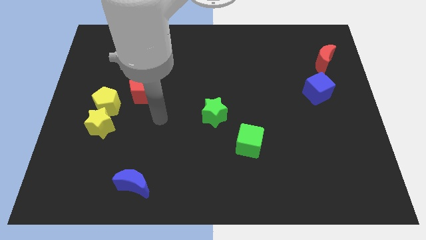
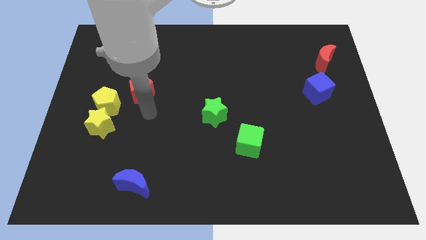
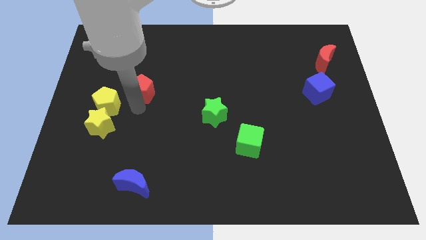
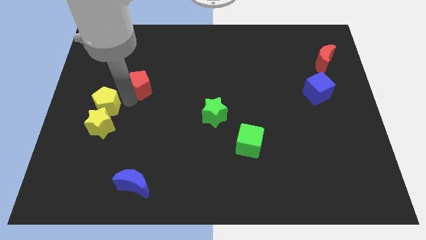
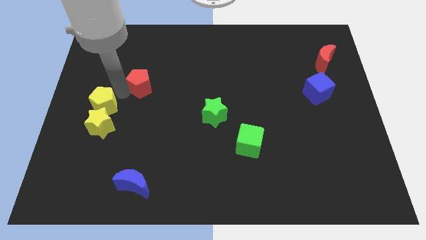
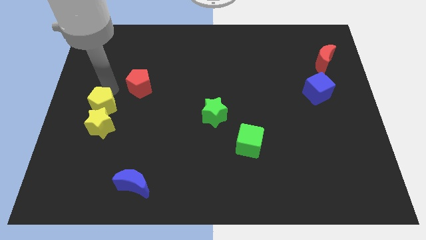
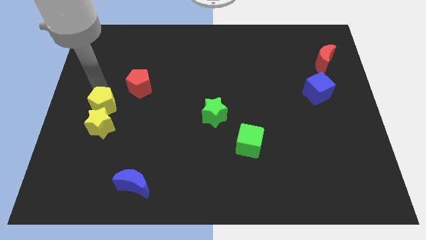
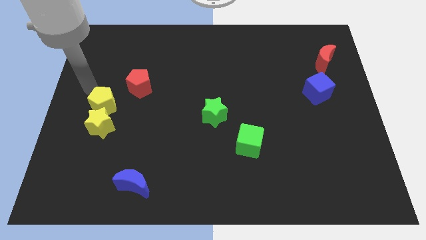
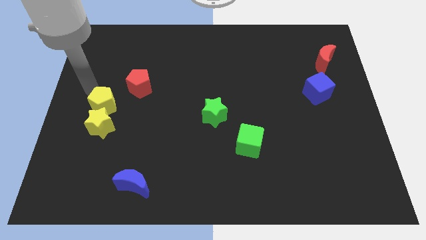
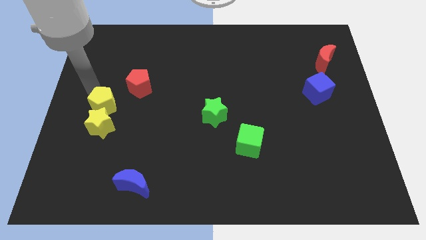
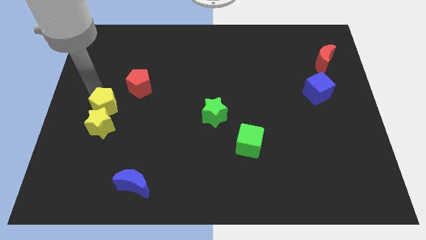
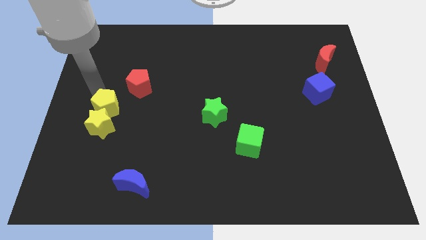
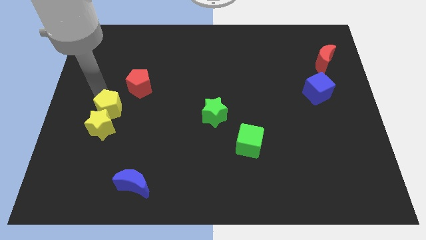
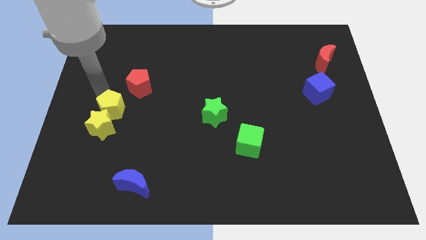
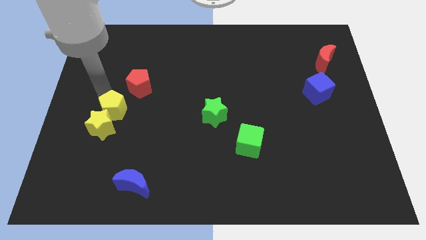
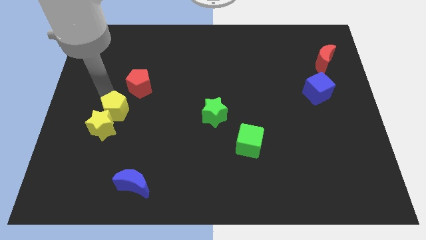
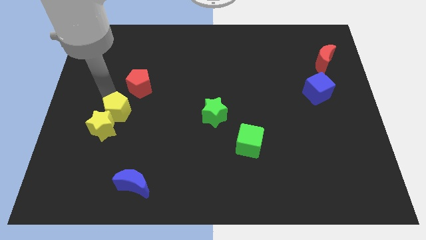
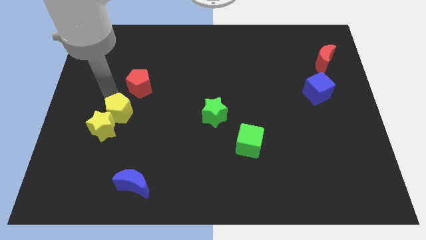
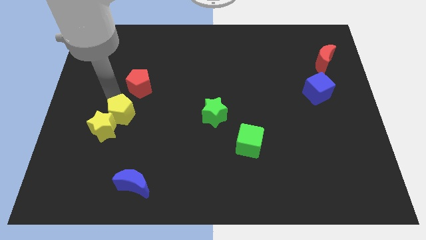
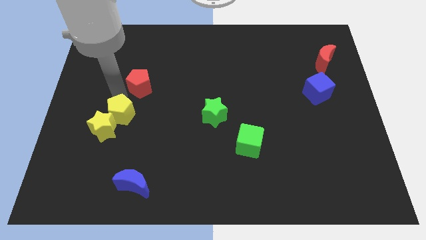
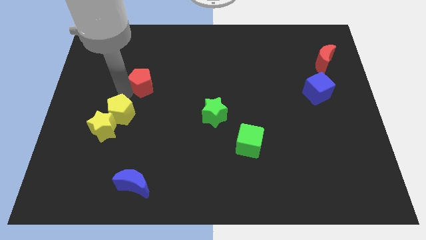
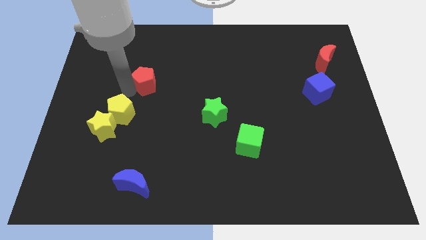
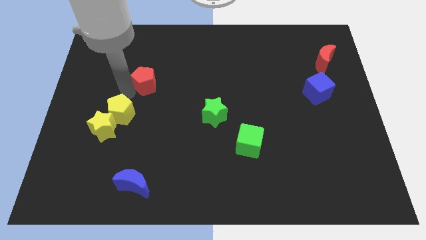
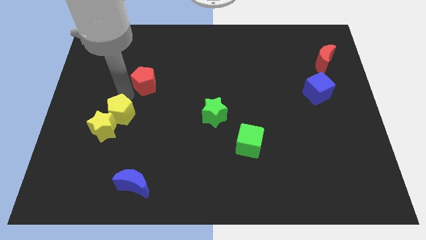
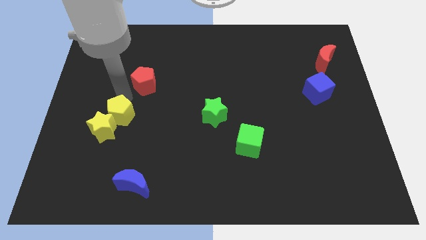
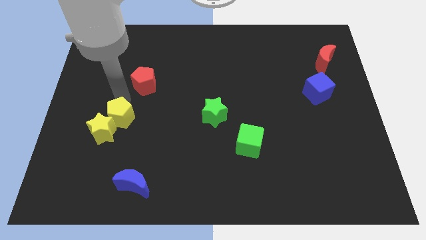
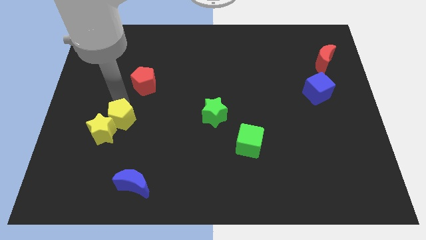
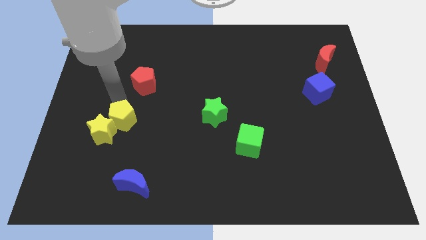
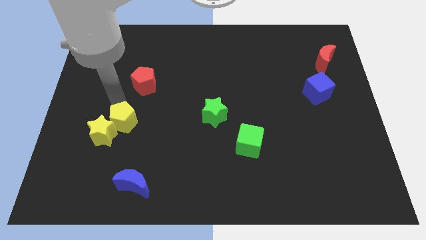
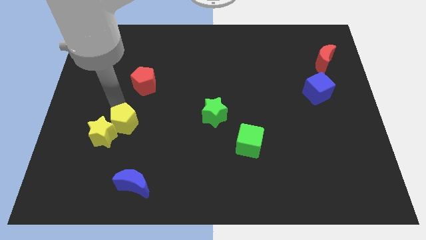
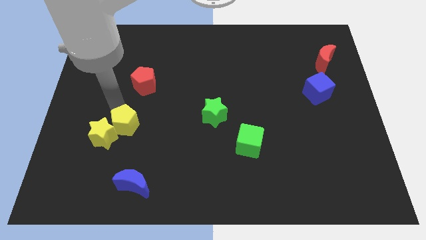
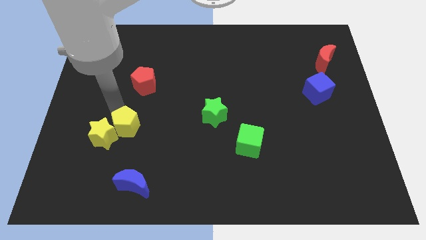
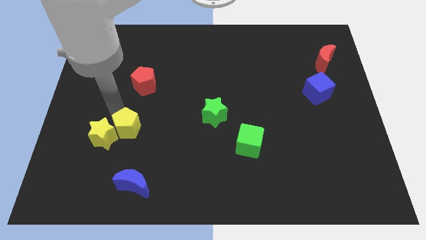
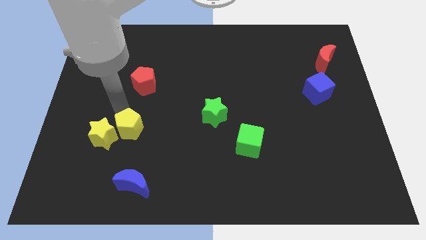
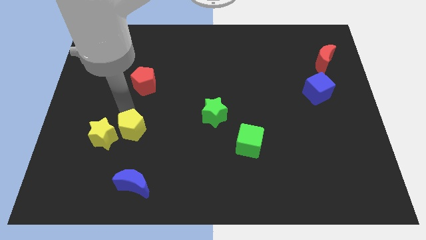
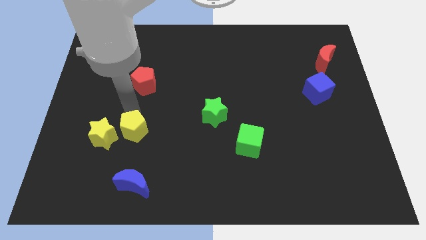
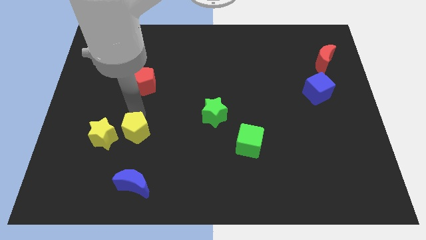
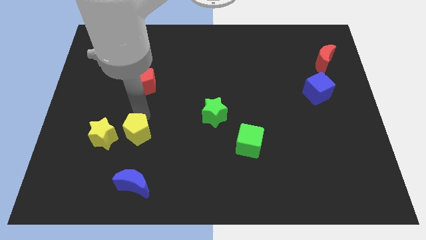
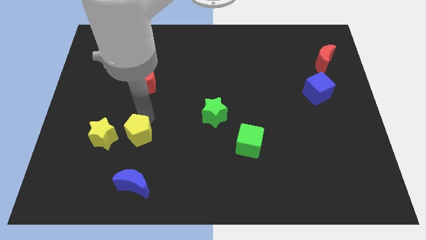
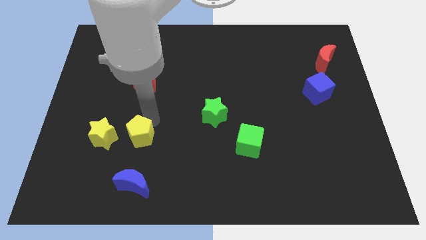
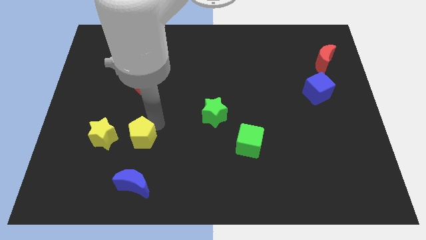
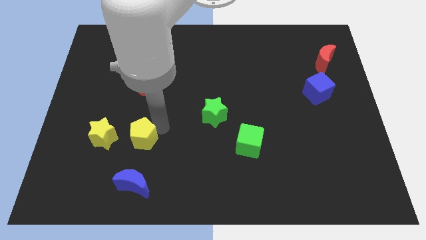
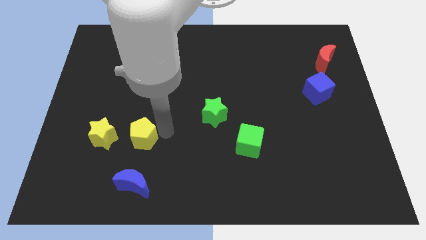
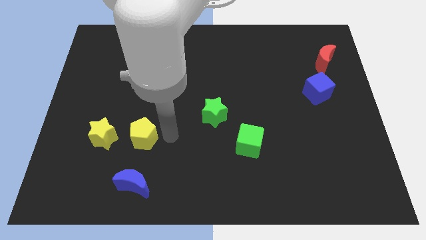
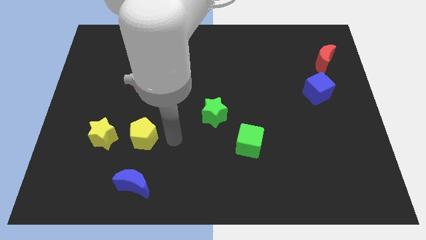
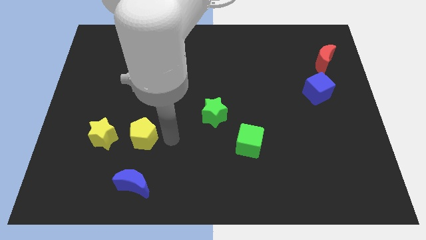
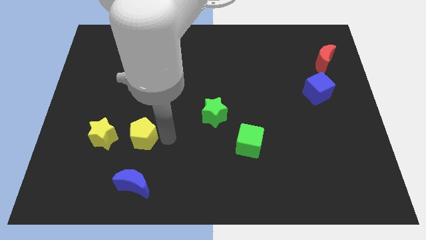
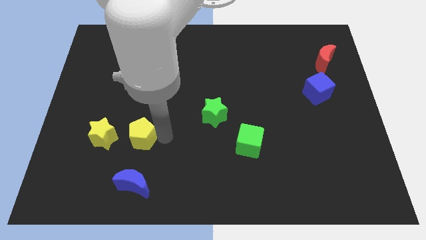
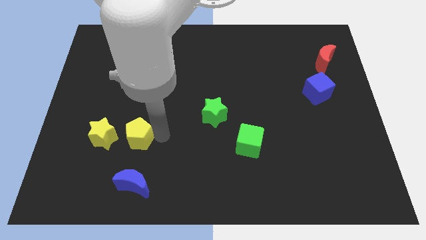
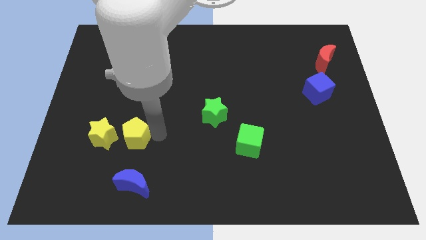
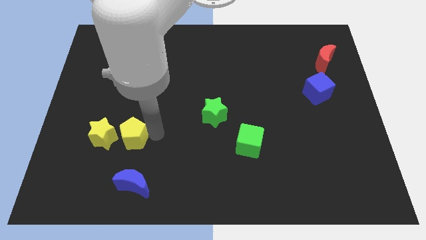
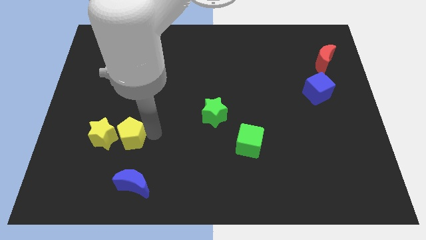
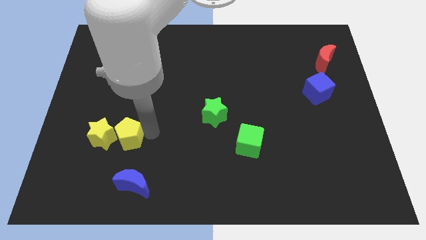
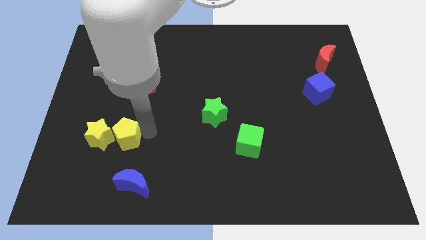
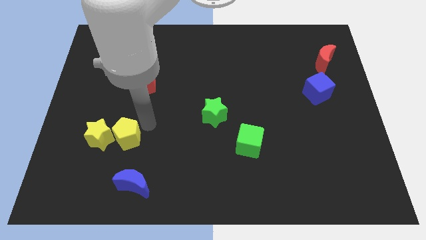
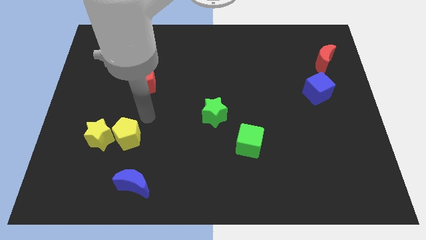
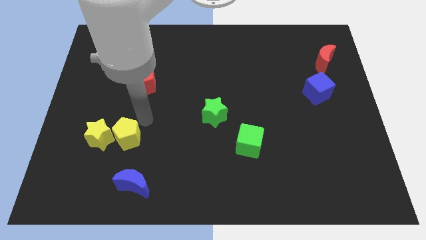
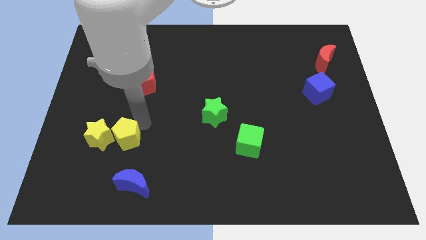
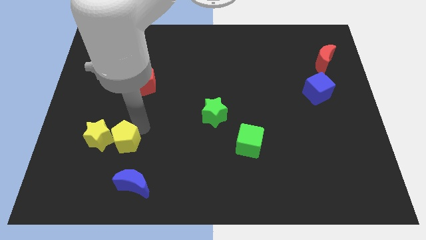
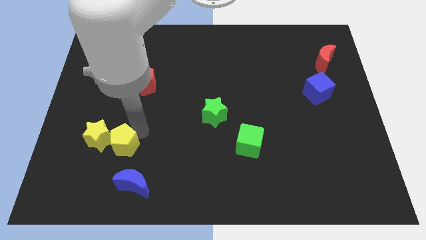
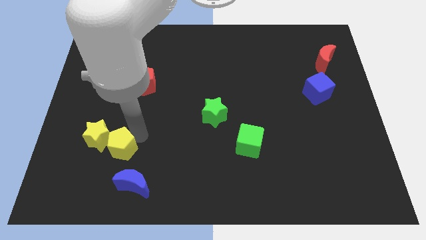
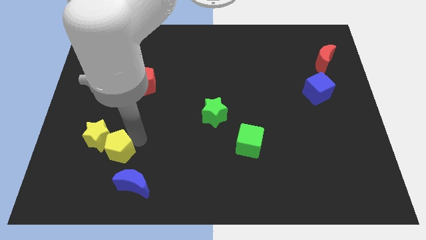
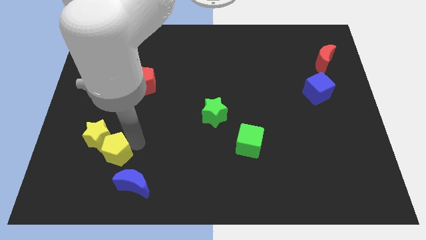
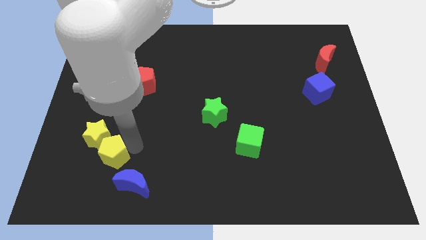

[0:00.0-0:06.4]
slide the yellow pentagon to the bottom side of the yellow star

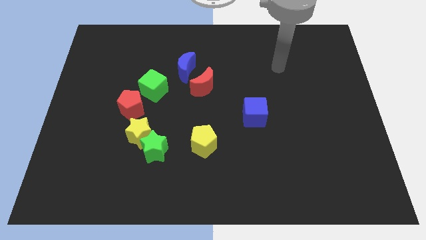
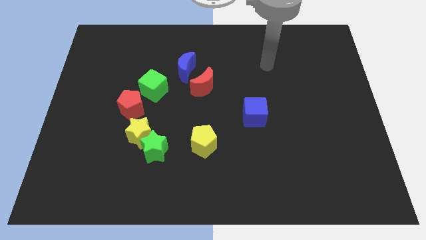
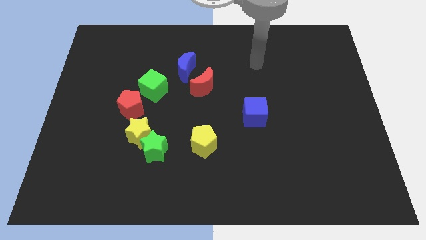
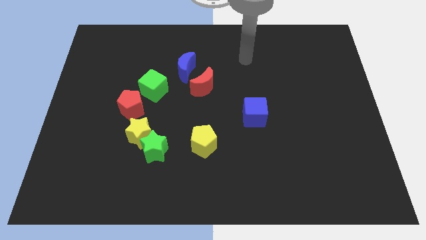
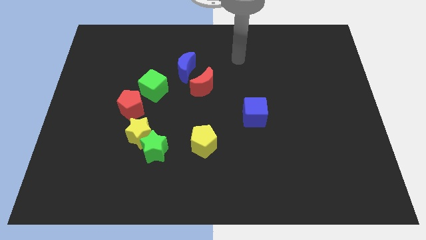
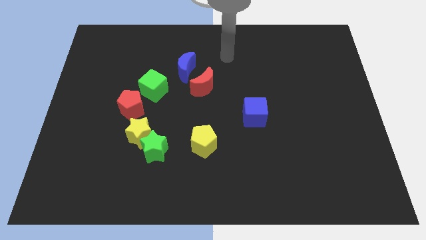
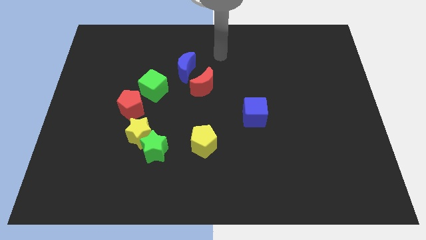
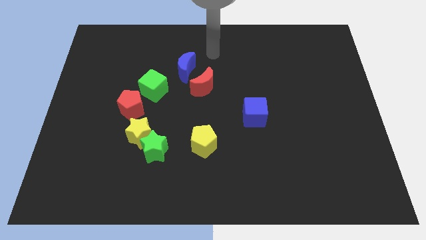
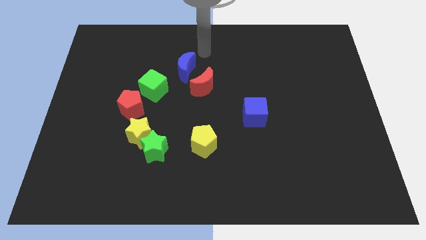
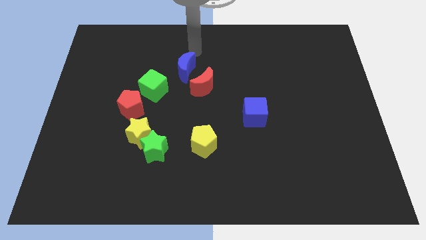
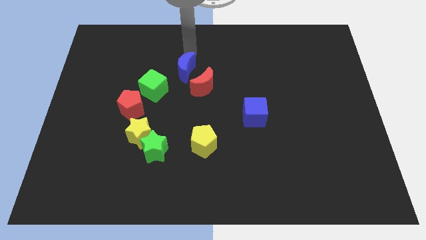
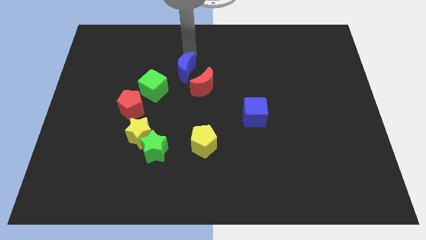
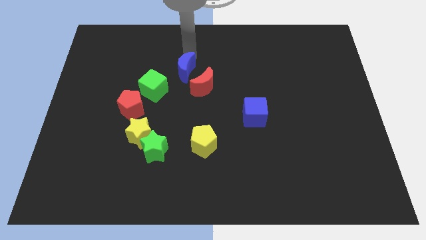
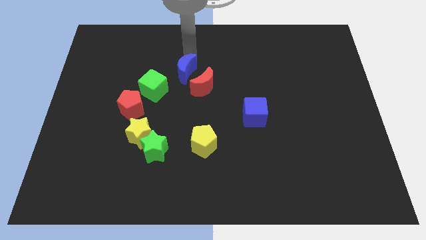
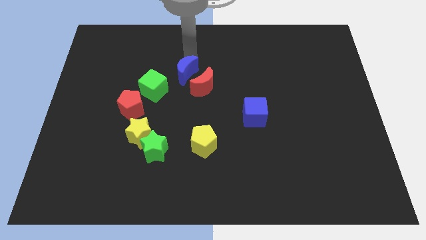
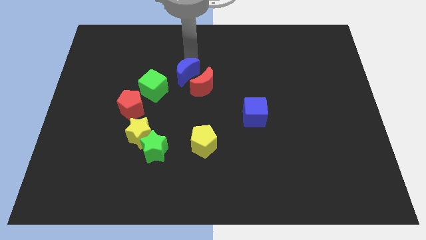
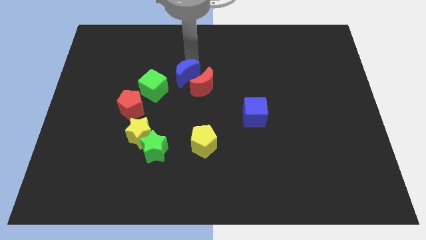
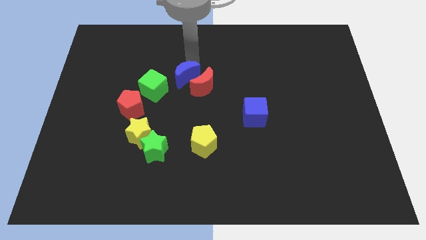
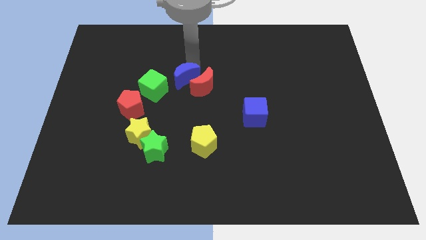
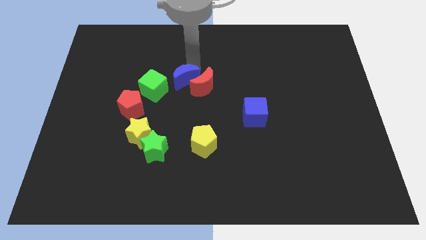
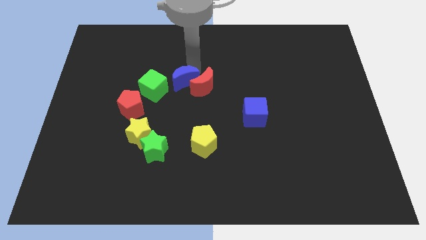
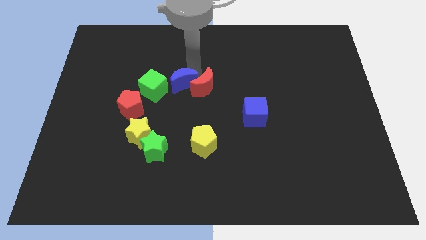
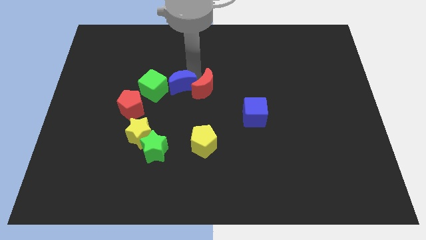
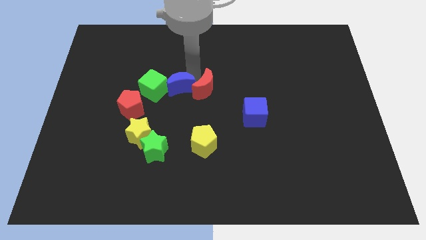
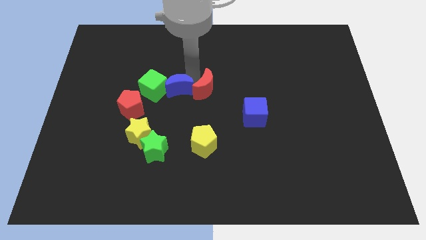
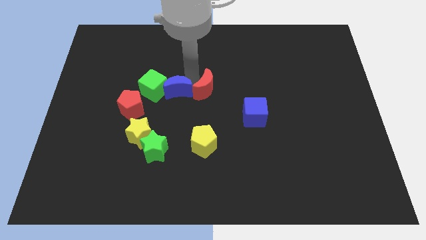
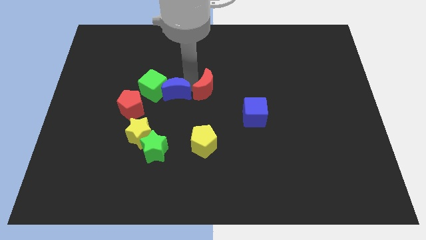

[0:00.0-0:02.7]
push the blue moon to the right of the red pentagon
